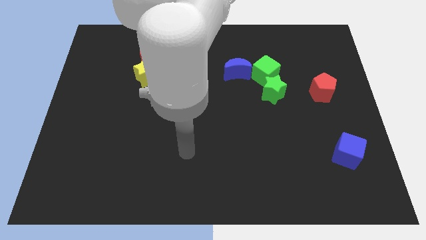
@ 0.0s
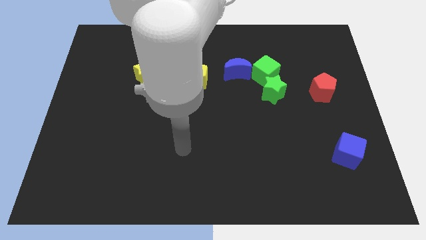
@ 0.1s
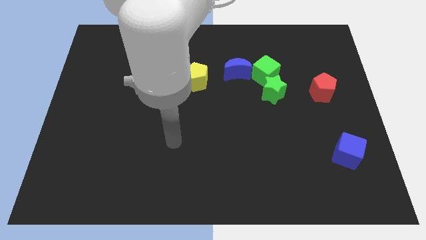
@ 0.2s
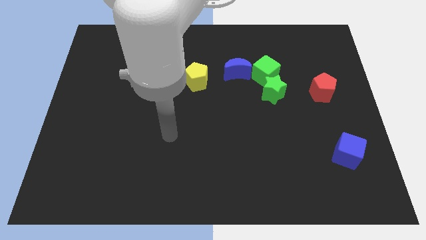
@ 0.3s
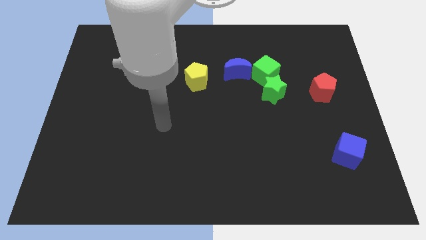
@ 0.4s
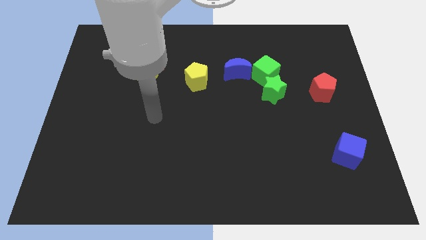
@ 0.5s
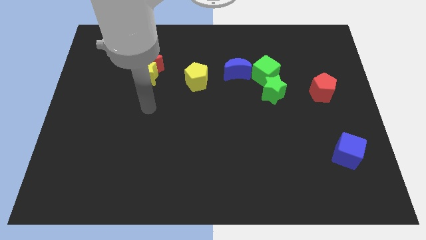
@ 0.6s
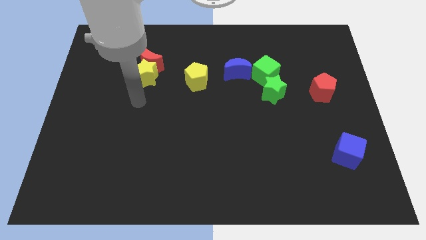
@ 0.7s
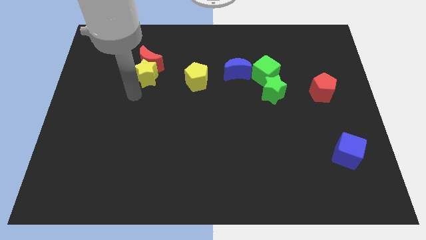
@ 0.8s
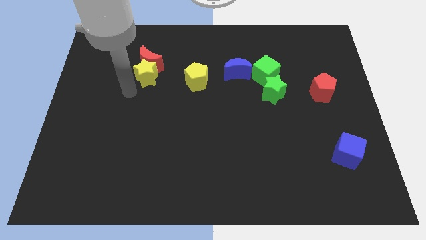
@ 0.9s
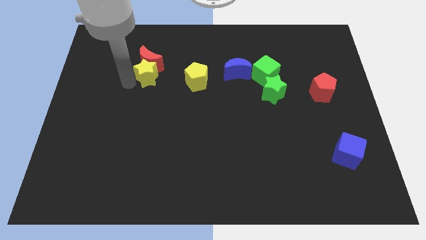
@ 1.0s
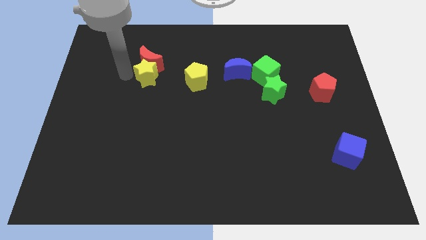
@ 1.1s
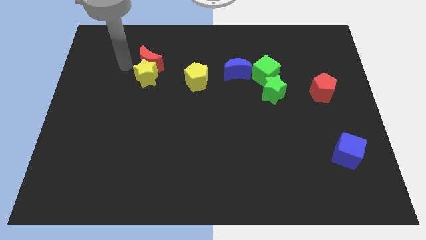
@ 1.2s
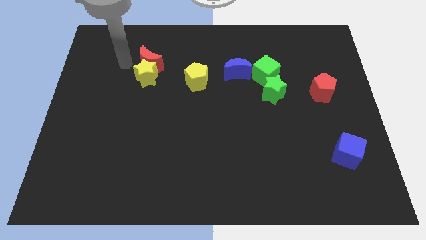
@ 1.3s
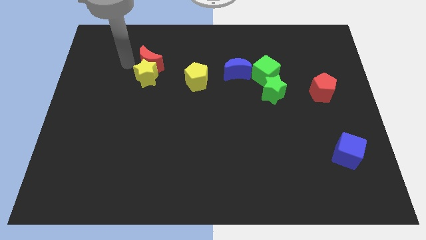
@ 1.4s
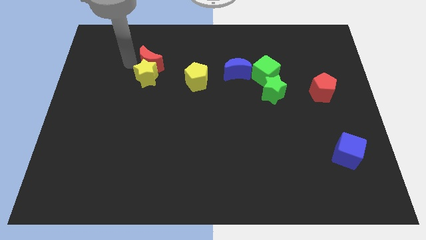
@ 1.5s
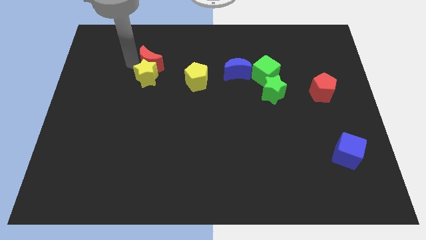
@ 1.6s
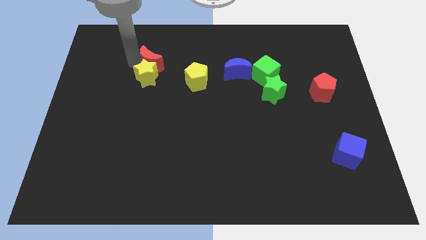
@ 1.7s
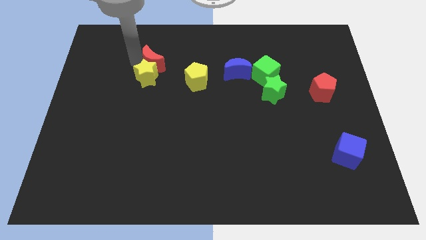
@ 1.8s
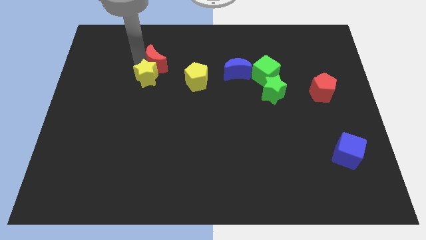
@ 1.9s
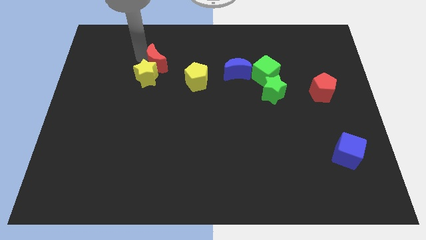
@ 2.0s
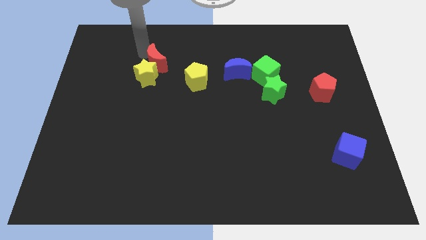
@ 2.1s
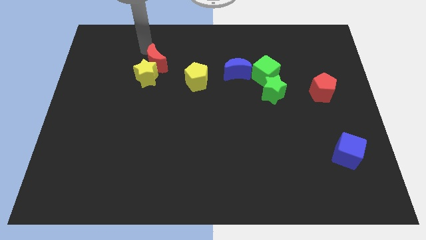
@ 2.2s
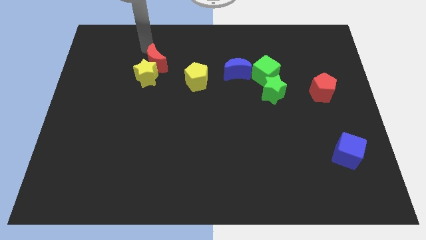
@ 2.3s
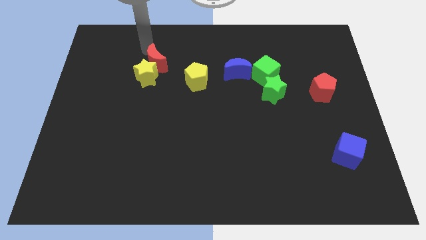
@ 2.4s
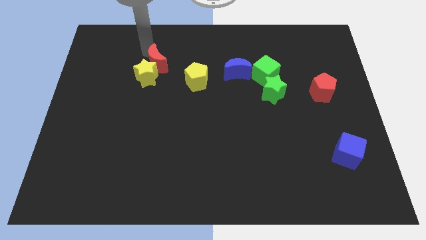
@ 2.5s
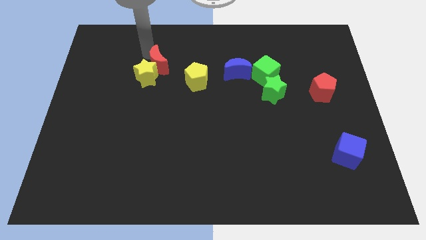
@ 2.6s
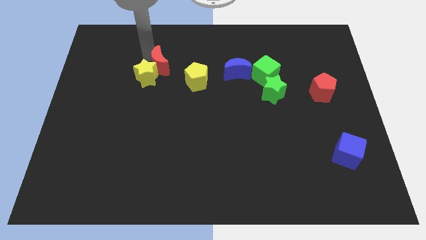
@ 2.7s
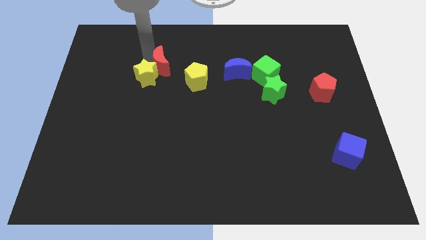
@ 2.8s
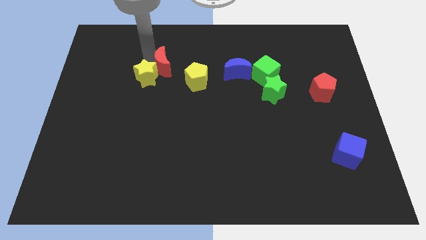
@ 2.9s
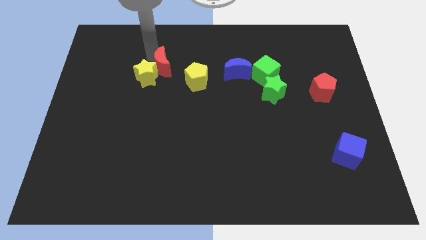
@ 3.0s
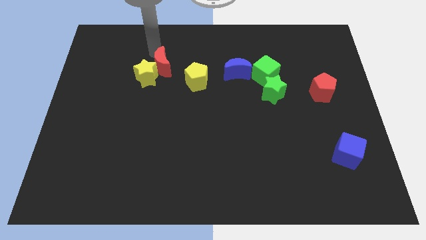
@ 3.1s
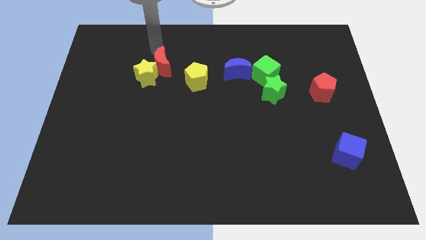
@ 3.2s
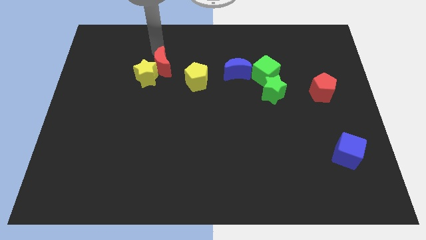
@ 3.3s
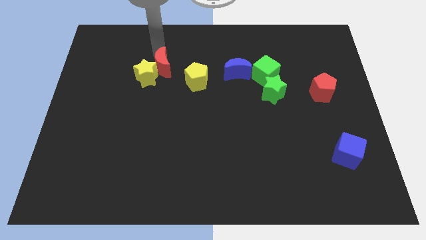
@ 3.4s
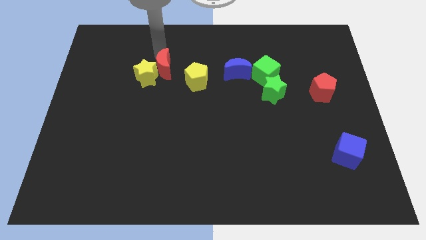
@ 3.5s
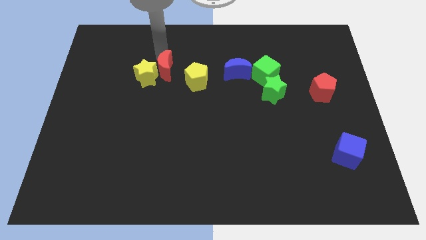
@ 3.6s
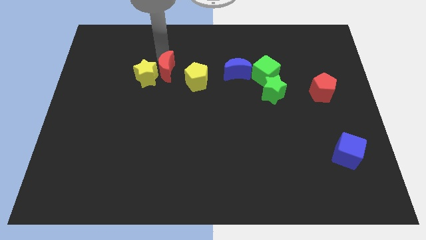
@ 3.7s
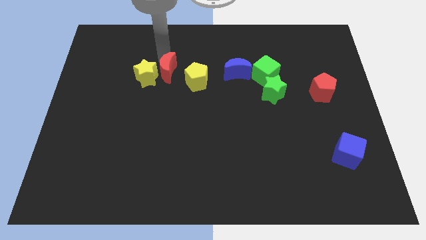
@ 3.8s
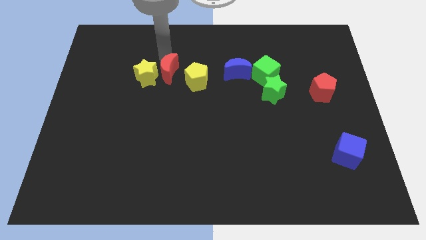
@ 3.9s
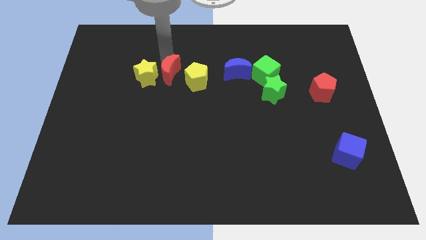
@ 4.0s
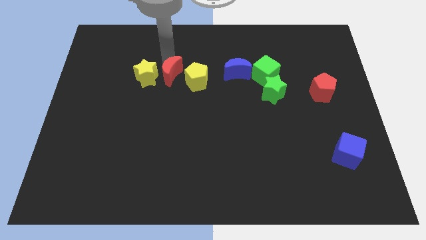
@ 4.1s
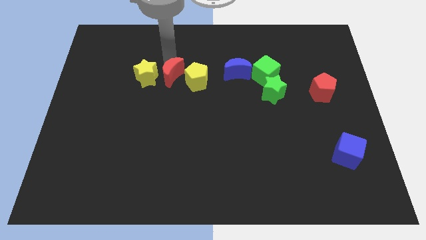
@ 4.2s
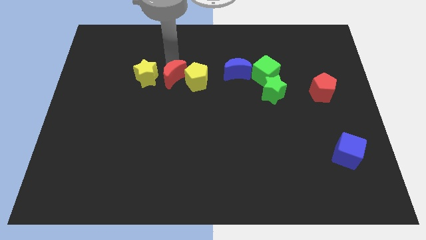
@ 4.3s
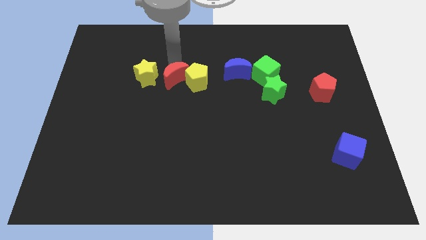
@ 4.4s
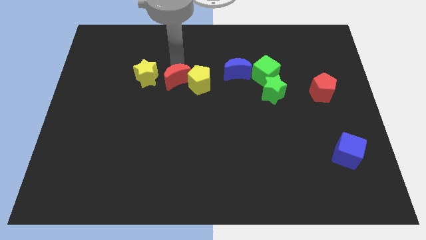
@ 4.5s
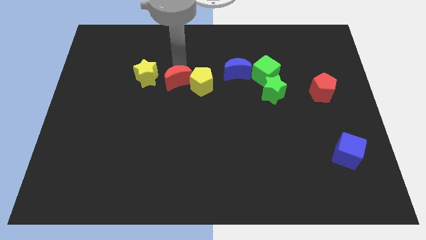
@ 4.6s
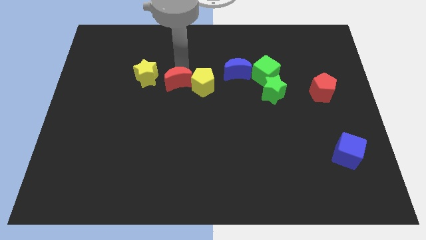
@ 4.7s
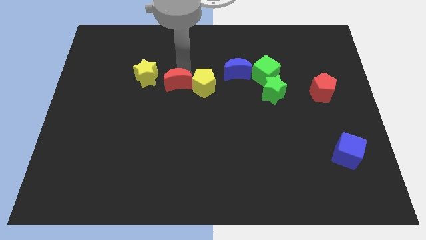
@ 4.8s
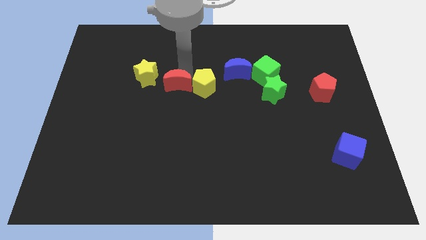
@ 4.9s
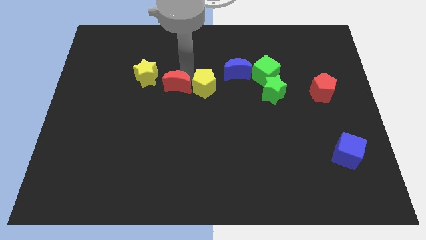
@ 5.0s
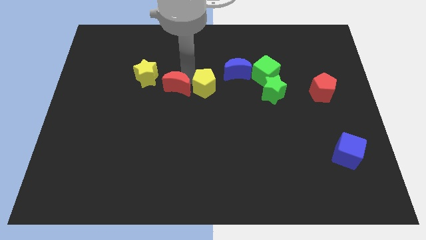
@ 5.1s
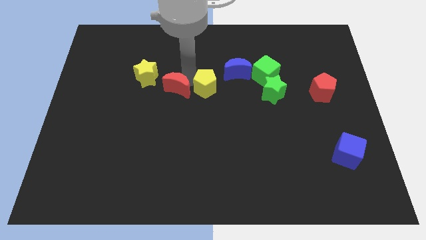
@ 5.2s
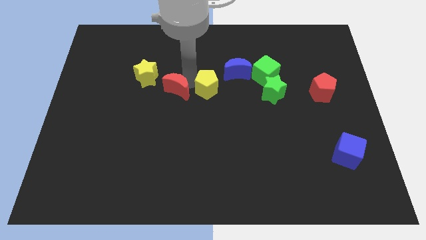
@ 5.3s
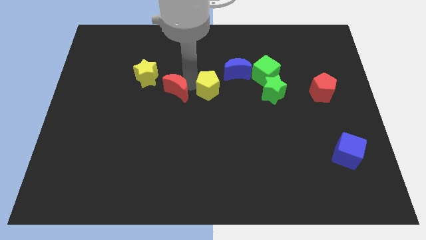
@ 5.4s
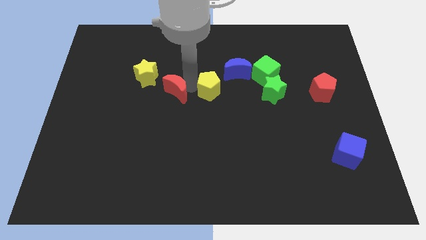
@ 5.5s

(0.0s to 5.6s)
slide the red moon downwards a bit

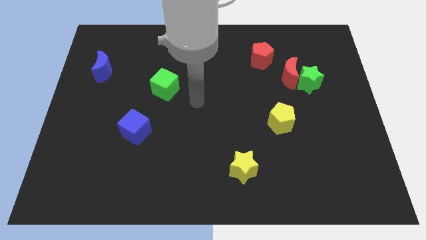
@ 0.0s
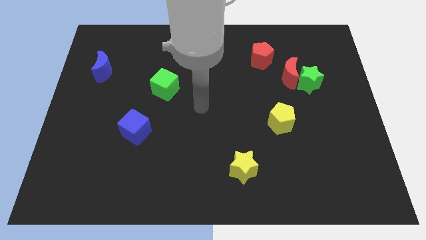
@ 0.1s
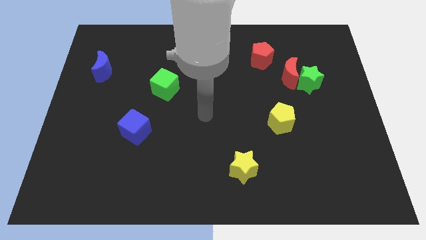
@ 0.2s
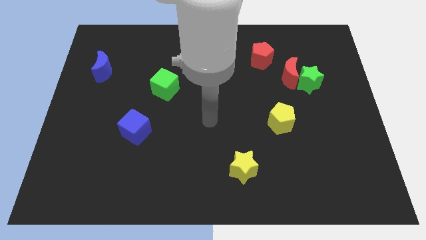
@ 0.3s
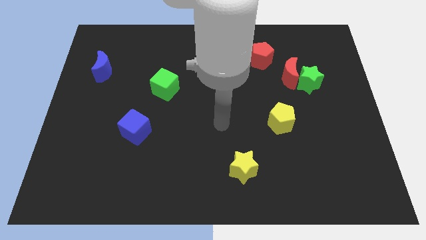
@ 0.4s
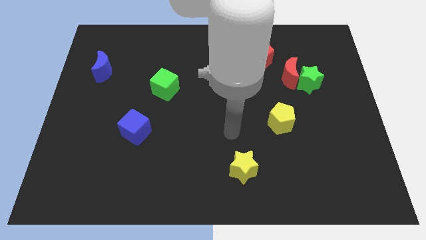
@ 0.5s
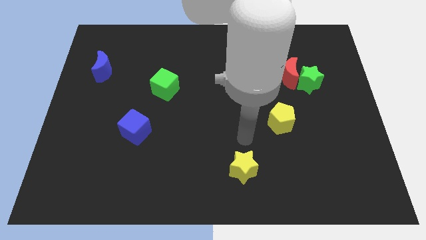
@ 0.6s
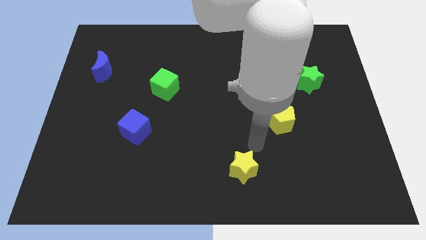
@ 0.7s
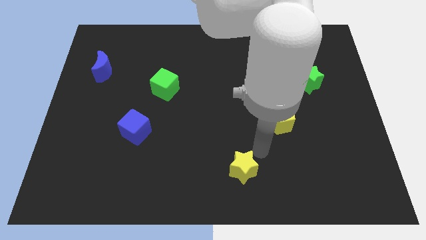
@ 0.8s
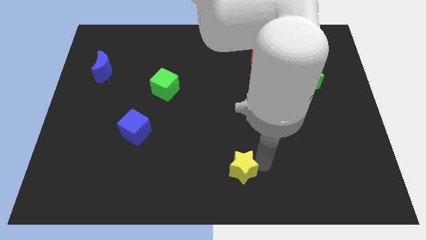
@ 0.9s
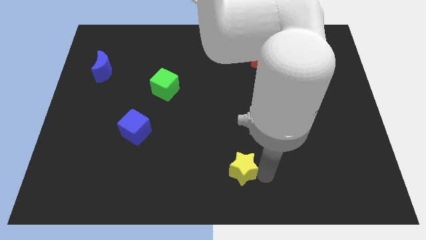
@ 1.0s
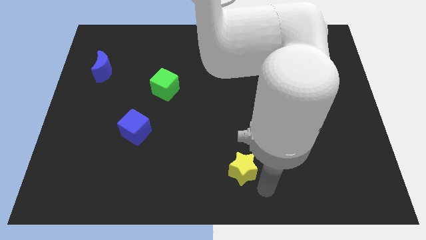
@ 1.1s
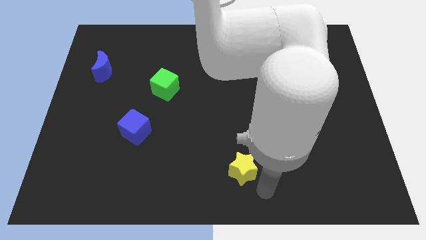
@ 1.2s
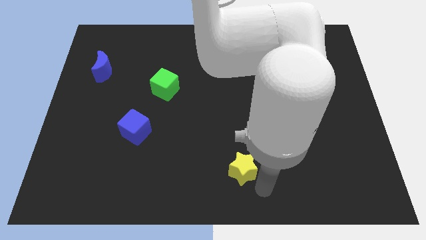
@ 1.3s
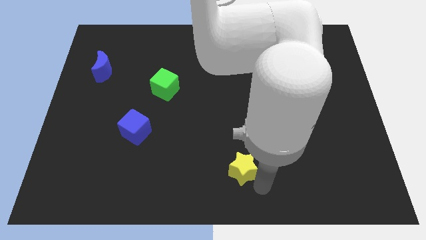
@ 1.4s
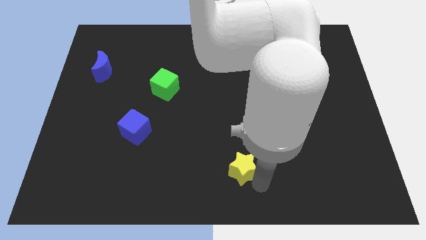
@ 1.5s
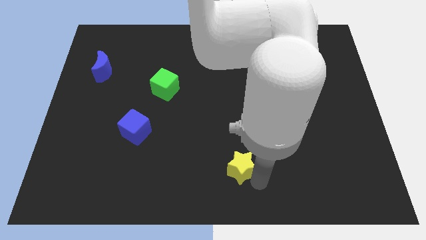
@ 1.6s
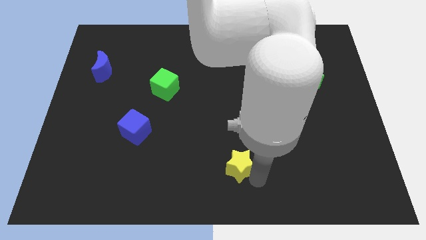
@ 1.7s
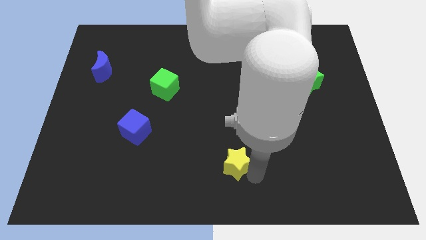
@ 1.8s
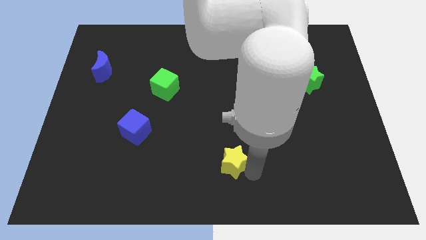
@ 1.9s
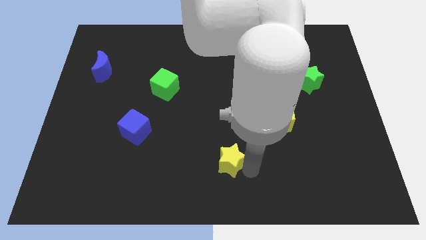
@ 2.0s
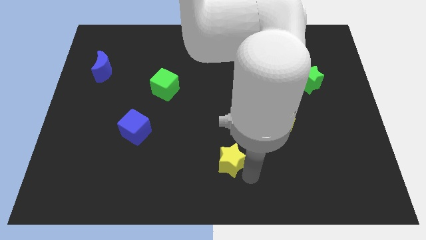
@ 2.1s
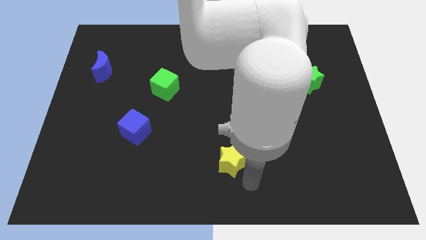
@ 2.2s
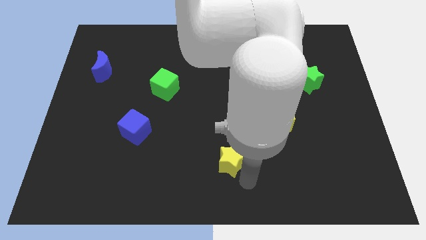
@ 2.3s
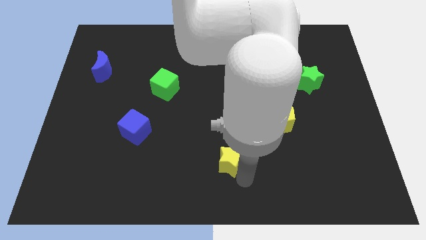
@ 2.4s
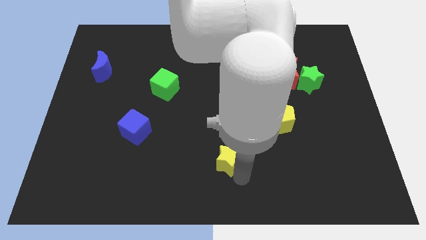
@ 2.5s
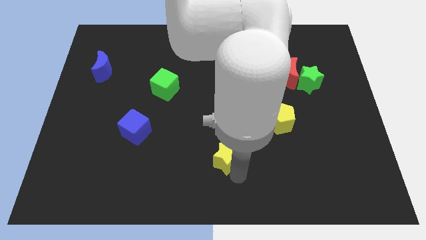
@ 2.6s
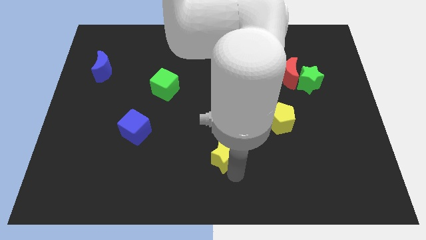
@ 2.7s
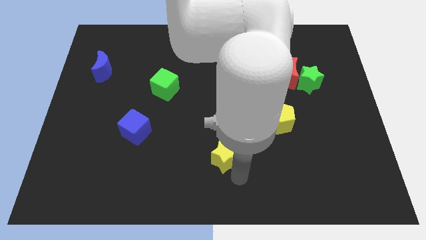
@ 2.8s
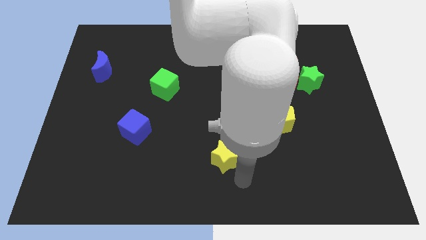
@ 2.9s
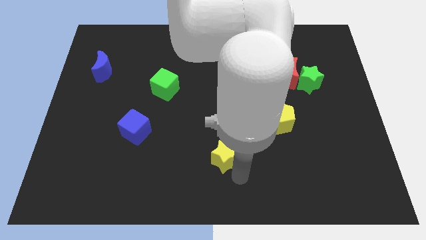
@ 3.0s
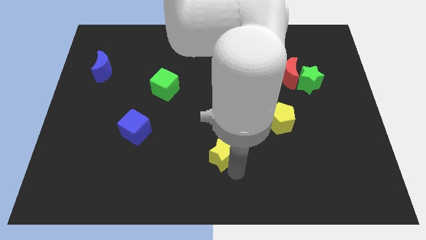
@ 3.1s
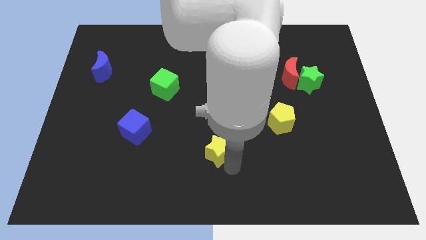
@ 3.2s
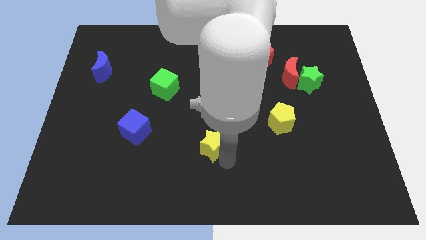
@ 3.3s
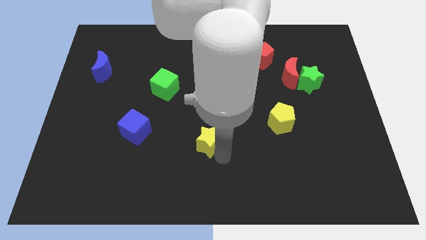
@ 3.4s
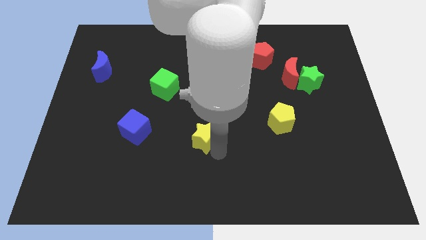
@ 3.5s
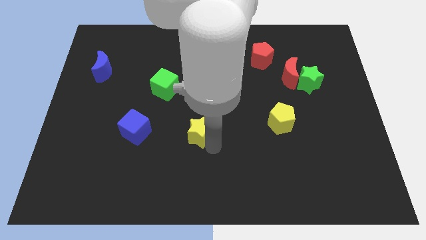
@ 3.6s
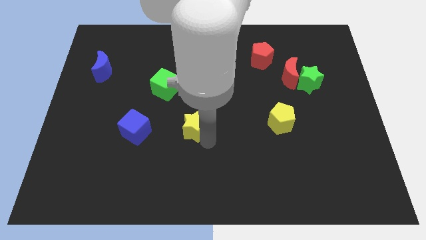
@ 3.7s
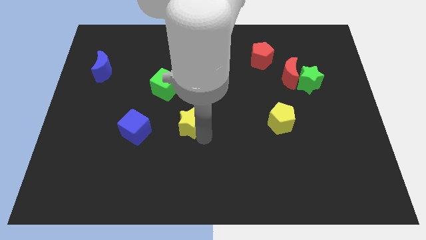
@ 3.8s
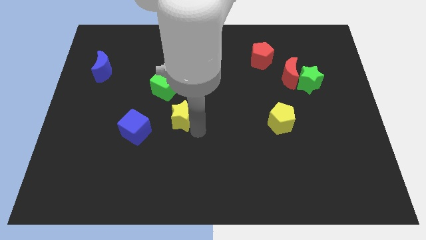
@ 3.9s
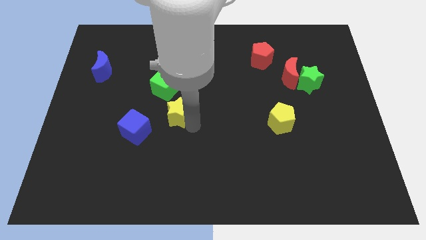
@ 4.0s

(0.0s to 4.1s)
slide the yellow star up and to the left diagonally
